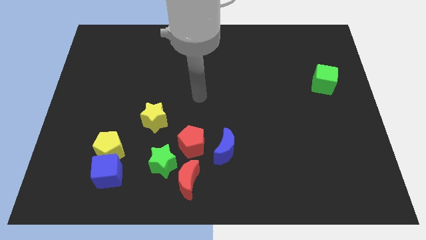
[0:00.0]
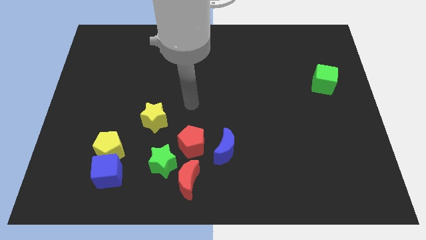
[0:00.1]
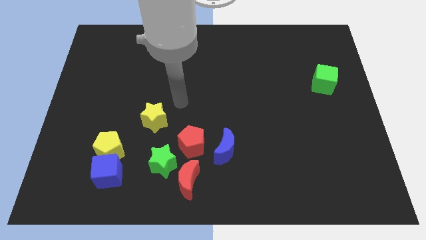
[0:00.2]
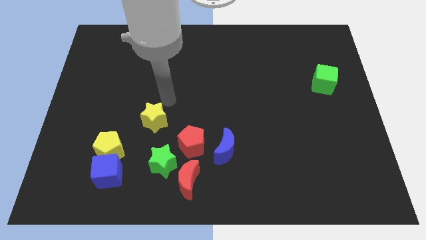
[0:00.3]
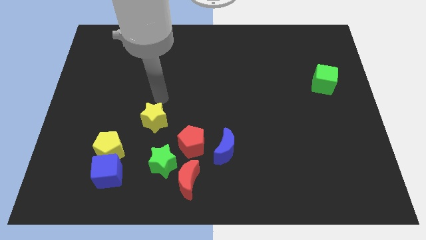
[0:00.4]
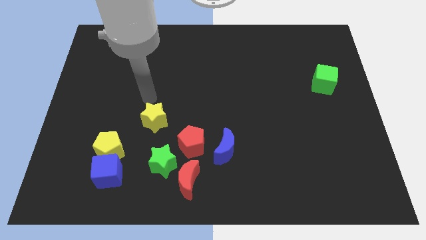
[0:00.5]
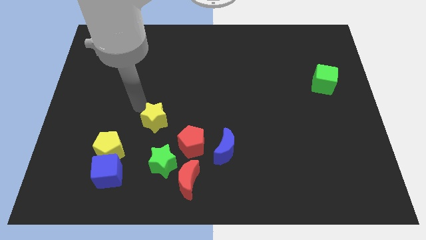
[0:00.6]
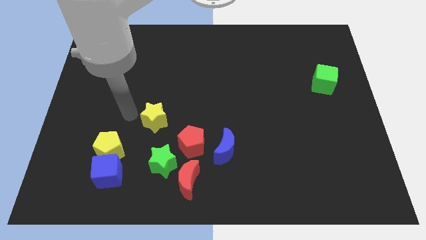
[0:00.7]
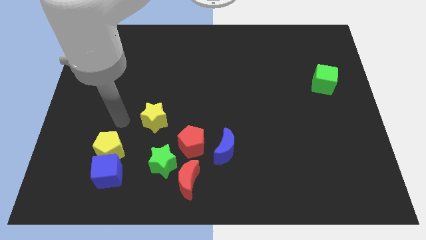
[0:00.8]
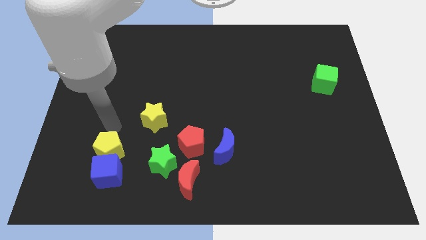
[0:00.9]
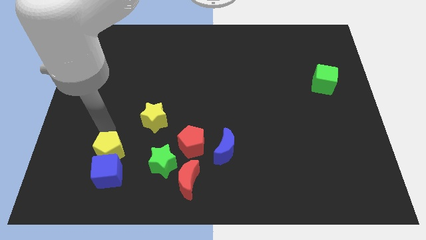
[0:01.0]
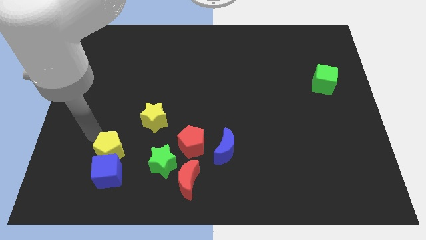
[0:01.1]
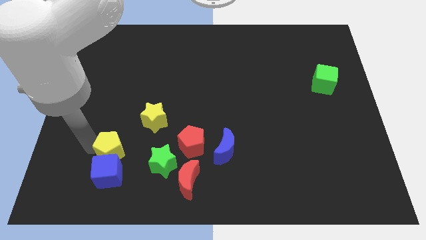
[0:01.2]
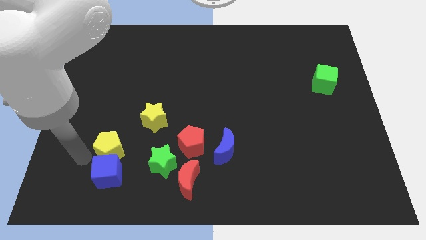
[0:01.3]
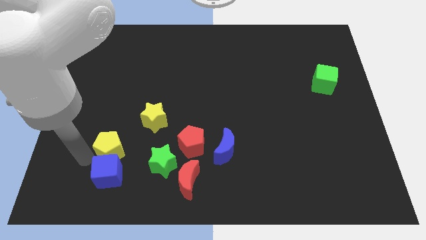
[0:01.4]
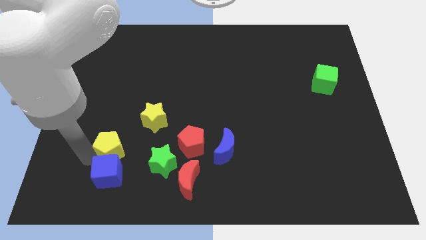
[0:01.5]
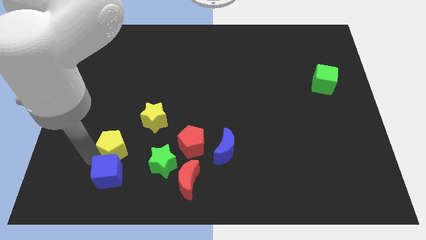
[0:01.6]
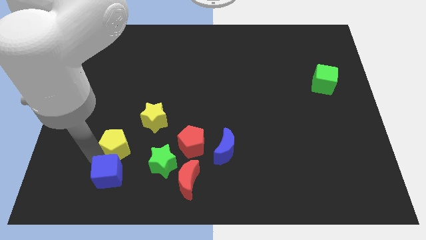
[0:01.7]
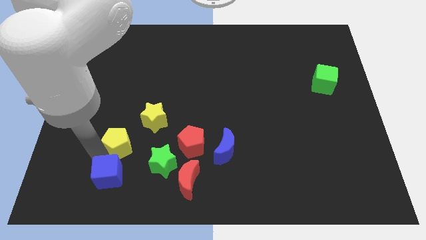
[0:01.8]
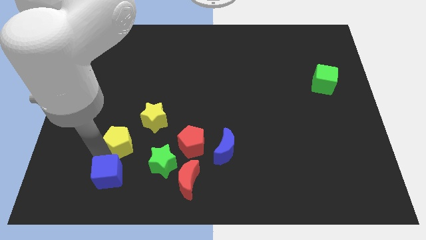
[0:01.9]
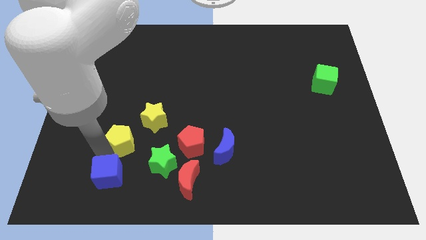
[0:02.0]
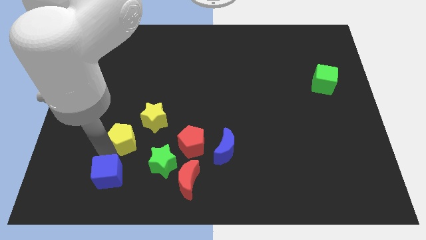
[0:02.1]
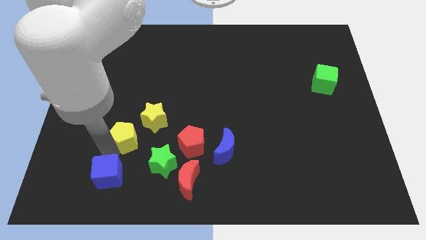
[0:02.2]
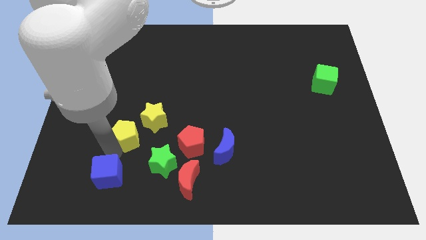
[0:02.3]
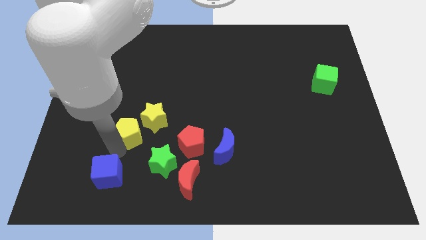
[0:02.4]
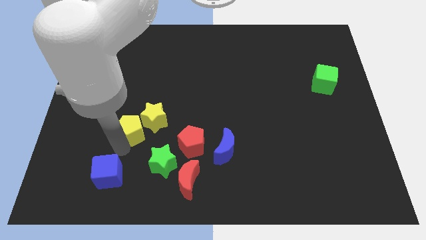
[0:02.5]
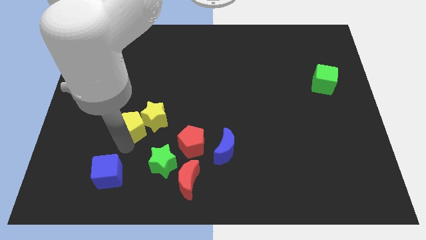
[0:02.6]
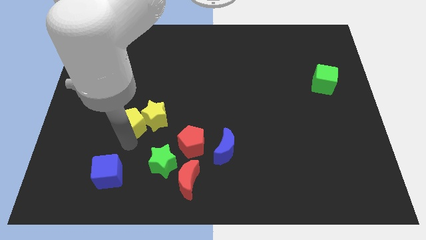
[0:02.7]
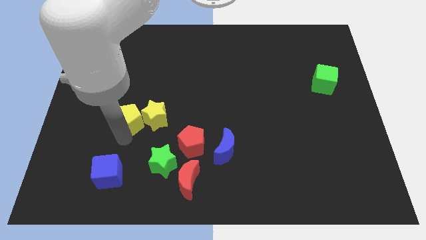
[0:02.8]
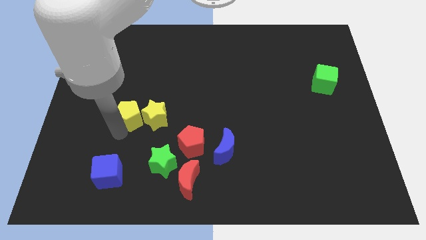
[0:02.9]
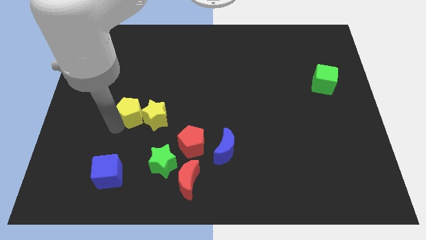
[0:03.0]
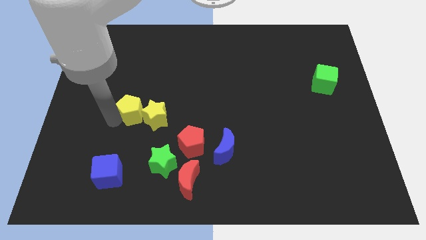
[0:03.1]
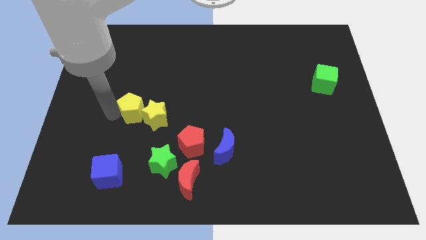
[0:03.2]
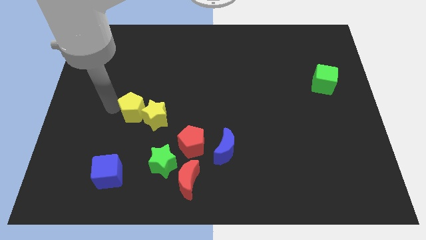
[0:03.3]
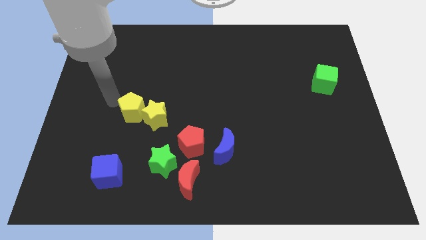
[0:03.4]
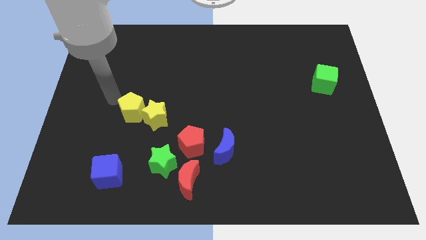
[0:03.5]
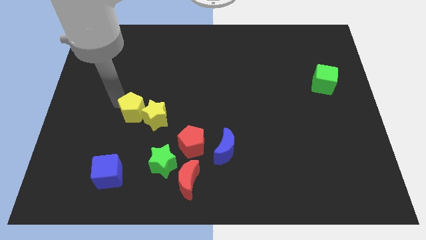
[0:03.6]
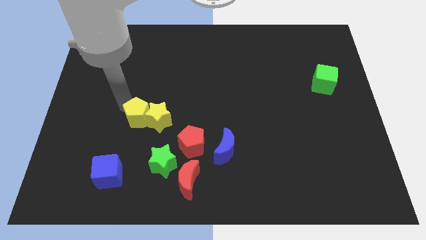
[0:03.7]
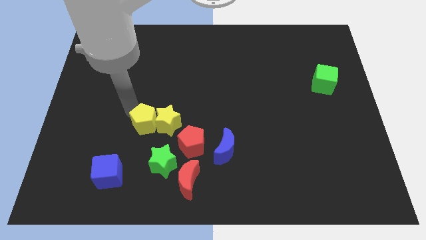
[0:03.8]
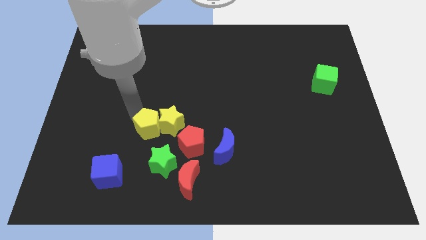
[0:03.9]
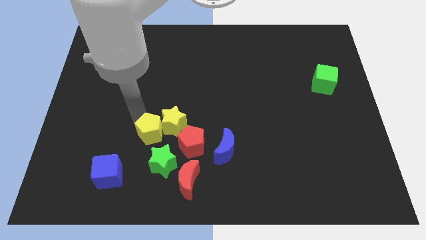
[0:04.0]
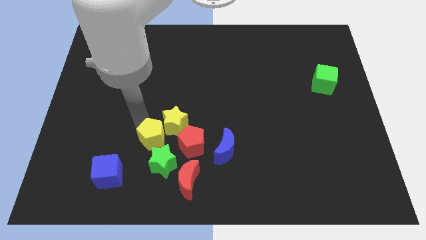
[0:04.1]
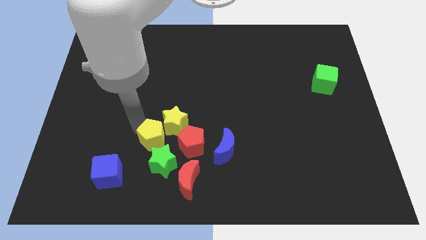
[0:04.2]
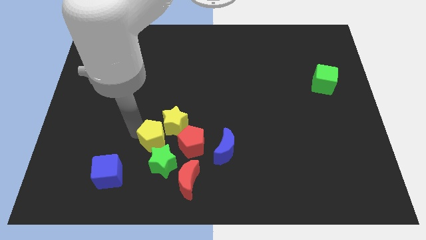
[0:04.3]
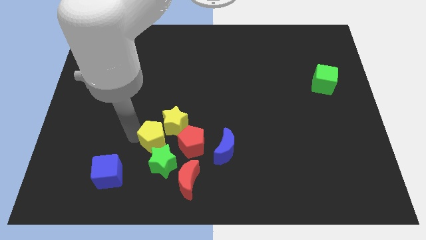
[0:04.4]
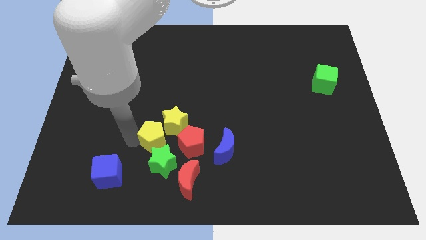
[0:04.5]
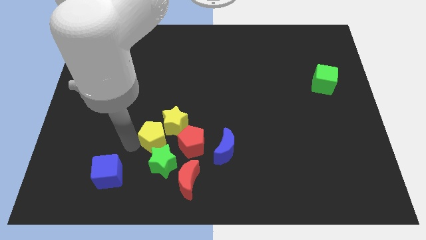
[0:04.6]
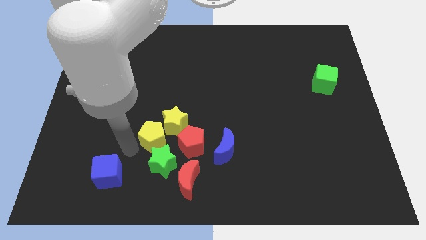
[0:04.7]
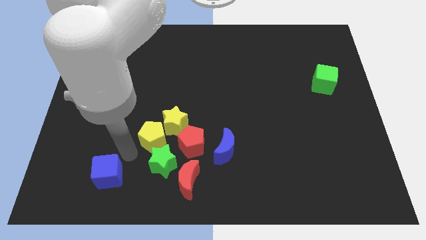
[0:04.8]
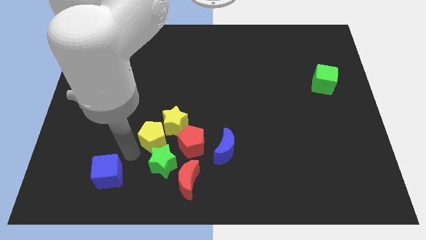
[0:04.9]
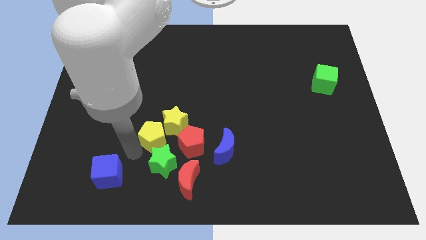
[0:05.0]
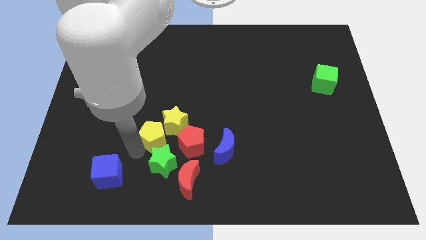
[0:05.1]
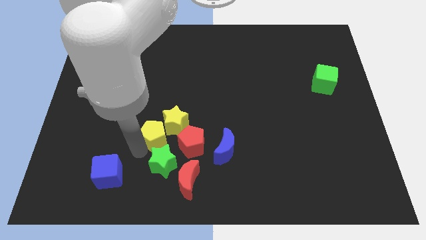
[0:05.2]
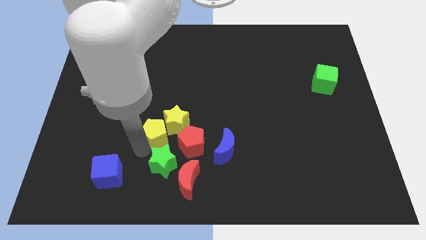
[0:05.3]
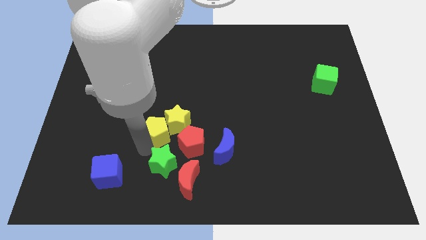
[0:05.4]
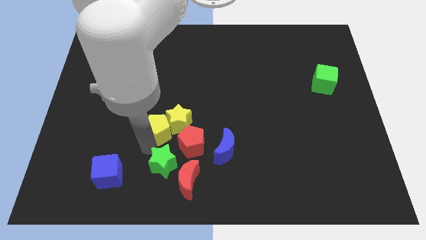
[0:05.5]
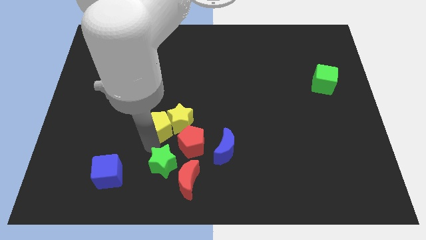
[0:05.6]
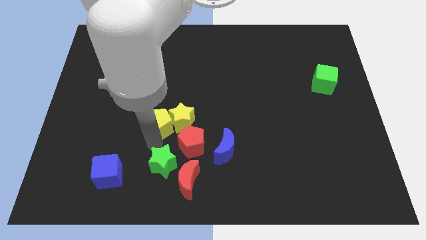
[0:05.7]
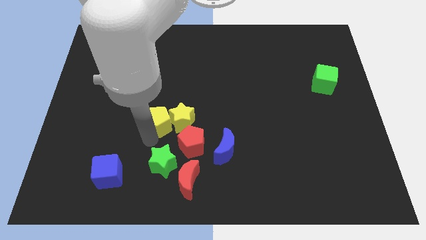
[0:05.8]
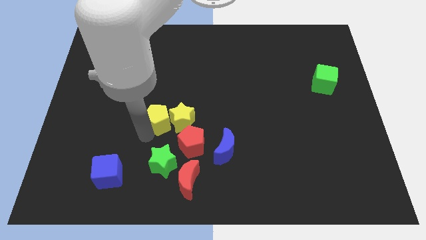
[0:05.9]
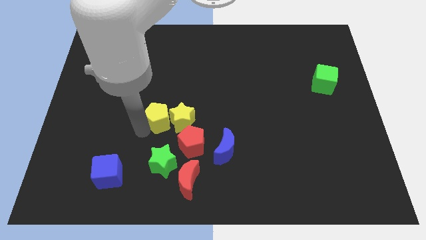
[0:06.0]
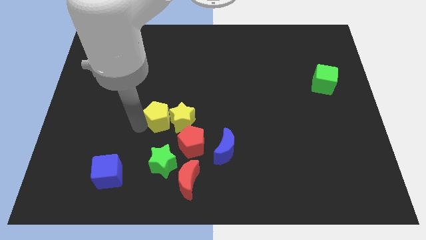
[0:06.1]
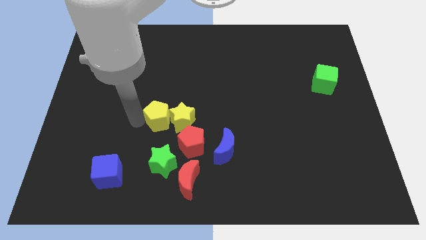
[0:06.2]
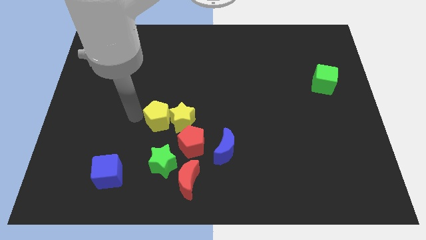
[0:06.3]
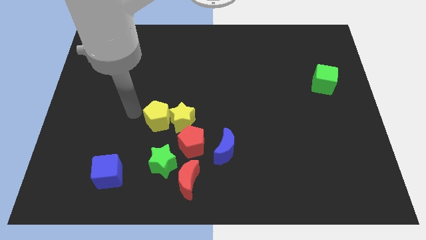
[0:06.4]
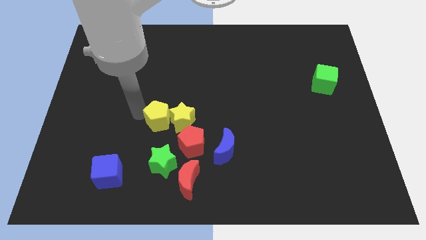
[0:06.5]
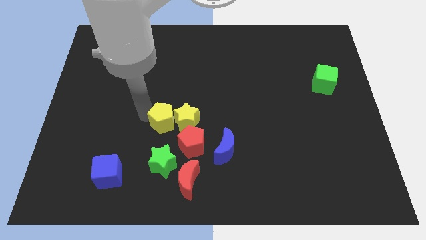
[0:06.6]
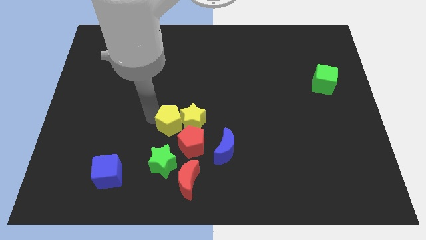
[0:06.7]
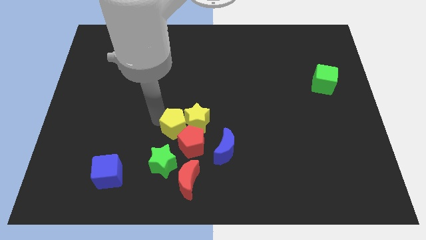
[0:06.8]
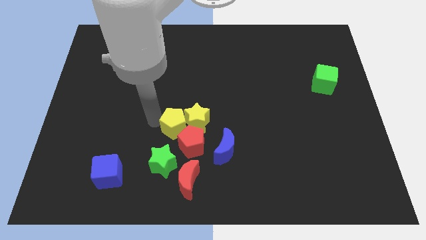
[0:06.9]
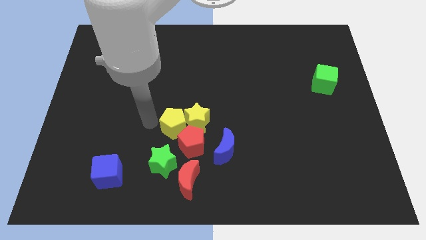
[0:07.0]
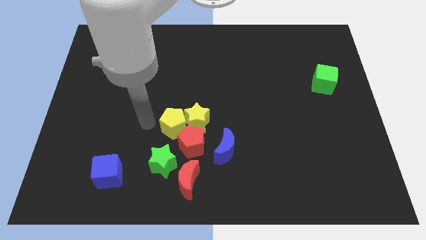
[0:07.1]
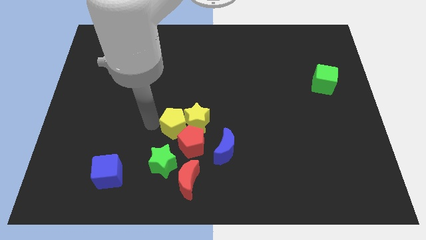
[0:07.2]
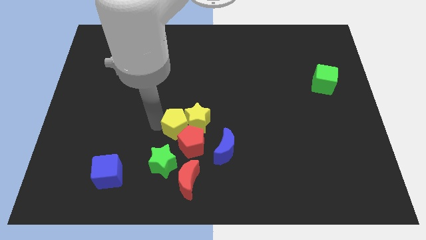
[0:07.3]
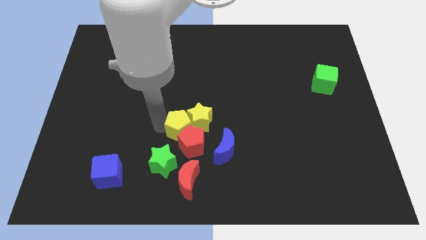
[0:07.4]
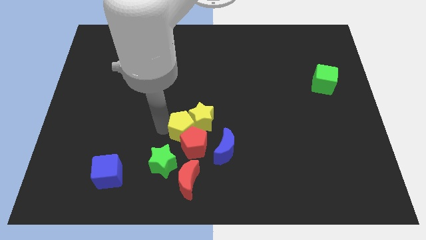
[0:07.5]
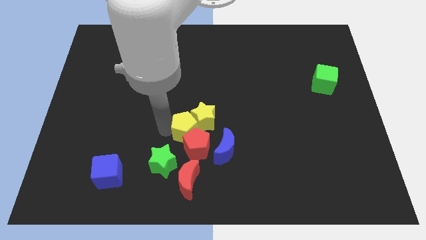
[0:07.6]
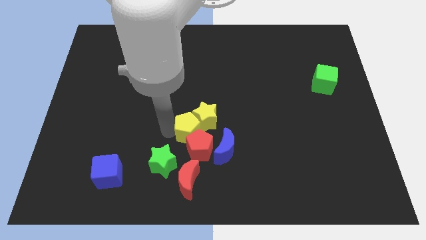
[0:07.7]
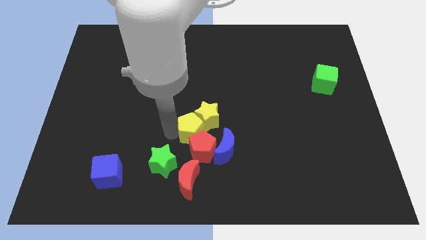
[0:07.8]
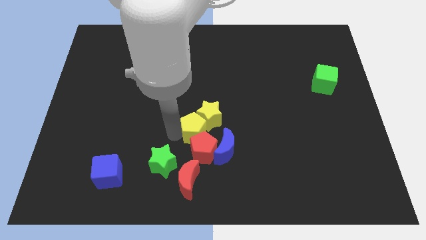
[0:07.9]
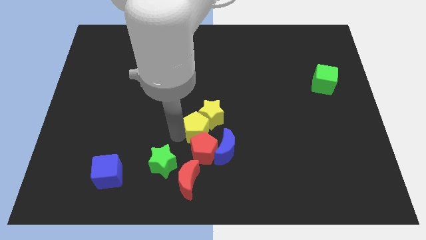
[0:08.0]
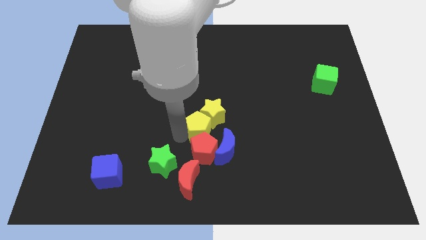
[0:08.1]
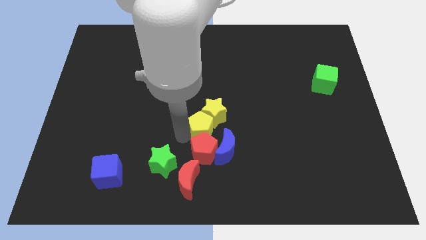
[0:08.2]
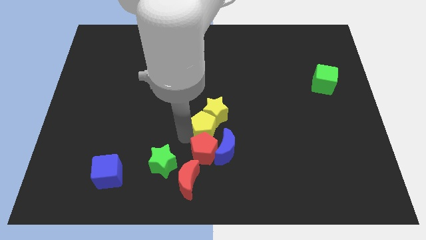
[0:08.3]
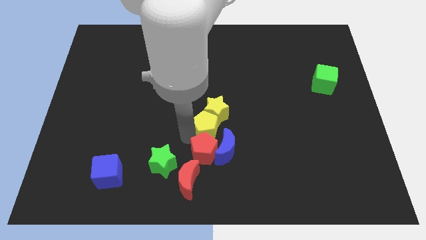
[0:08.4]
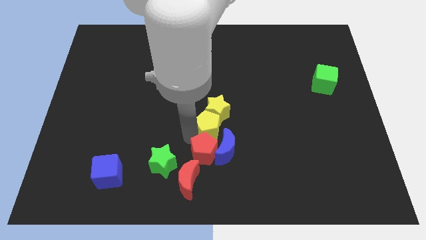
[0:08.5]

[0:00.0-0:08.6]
push the yellow pentagon to the right
